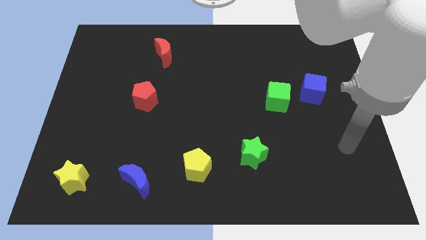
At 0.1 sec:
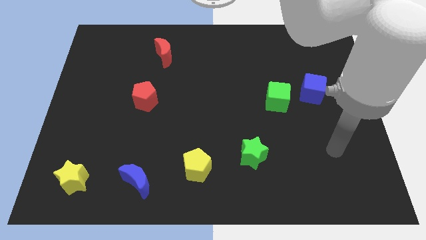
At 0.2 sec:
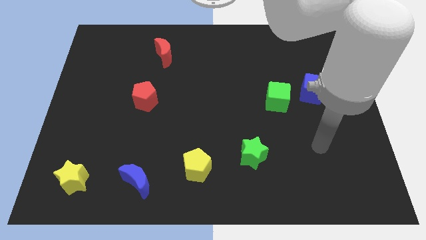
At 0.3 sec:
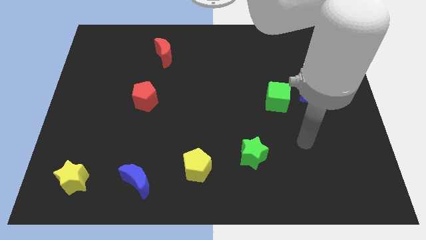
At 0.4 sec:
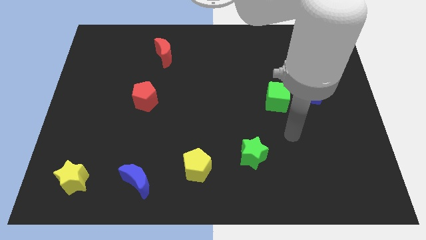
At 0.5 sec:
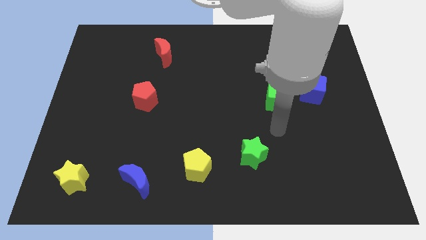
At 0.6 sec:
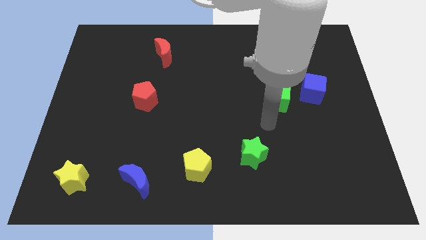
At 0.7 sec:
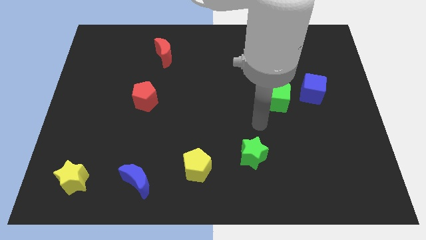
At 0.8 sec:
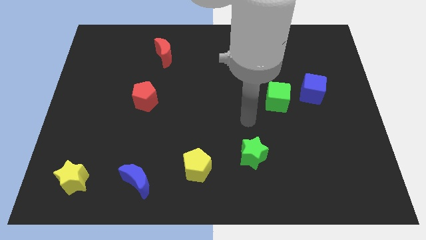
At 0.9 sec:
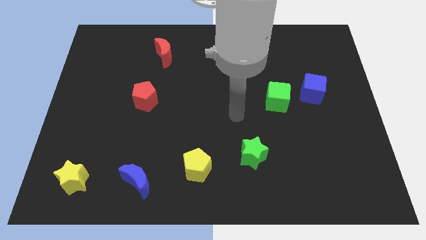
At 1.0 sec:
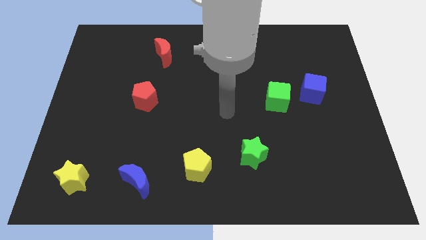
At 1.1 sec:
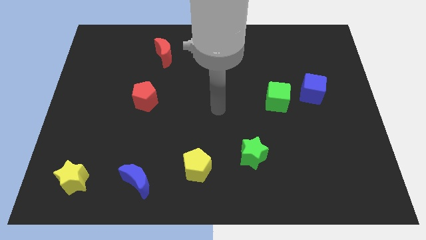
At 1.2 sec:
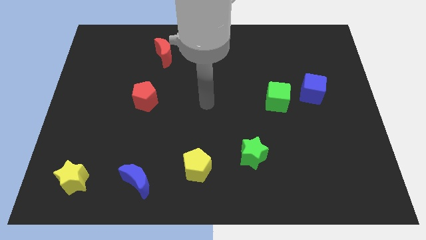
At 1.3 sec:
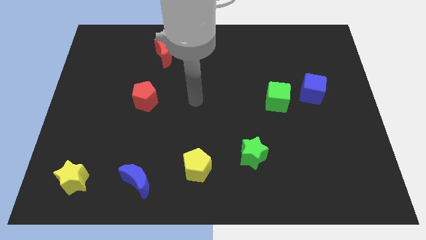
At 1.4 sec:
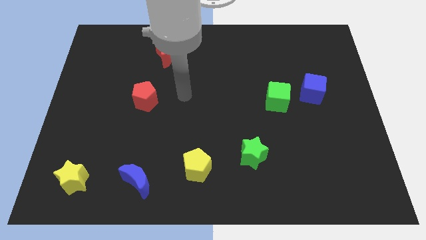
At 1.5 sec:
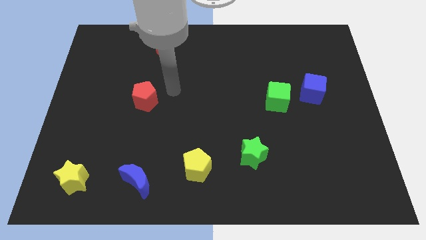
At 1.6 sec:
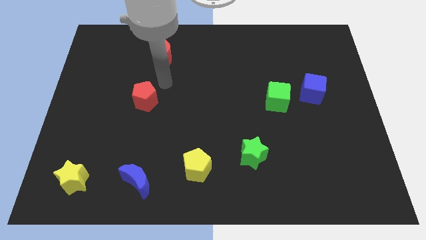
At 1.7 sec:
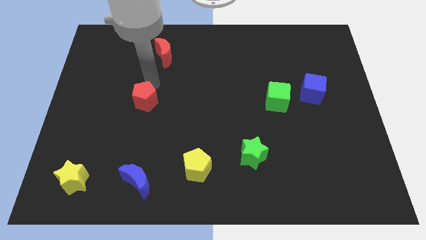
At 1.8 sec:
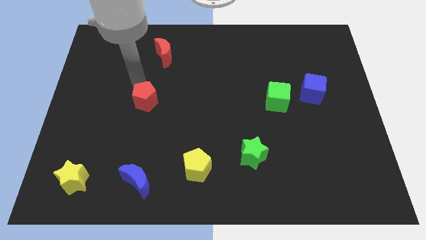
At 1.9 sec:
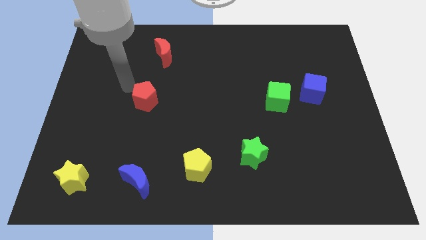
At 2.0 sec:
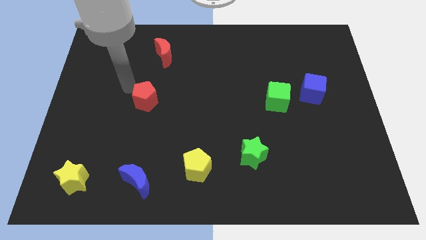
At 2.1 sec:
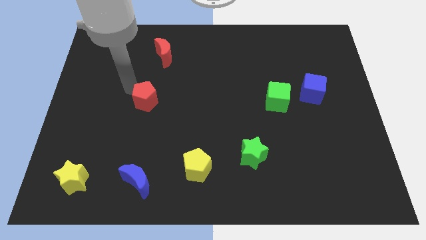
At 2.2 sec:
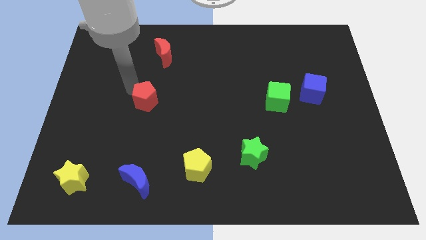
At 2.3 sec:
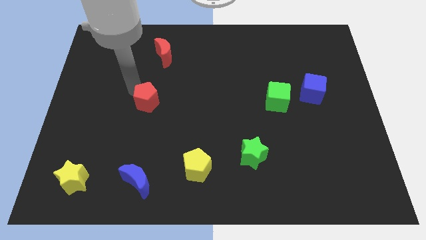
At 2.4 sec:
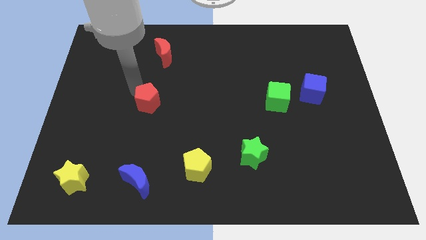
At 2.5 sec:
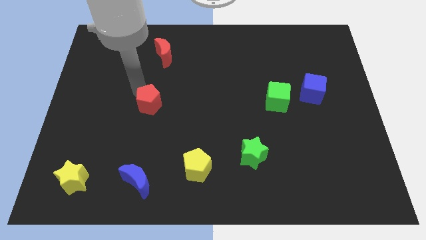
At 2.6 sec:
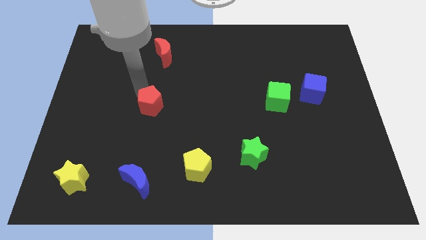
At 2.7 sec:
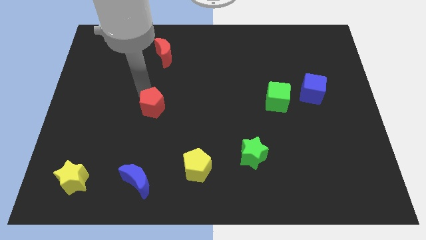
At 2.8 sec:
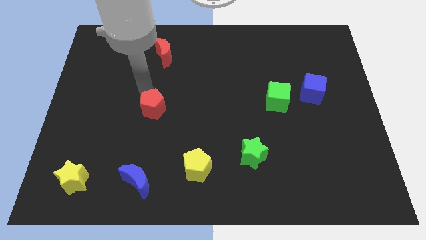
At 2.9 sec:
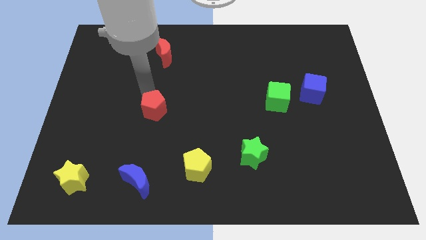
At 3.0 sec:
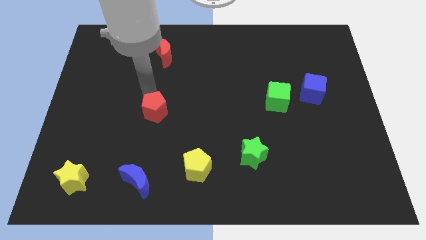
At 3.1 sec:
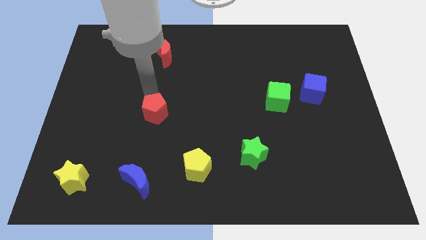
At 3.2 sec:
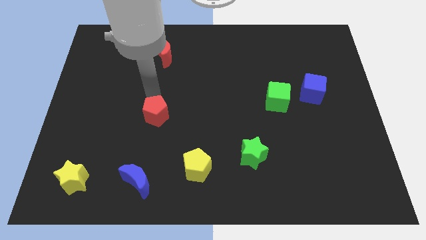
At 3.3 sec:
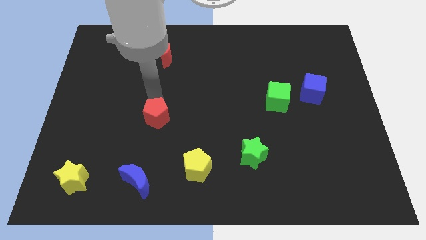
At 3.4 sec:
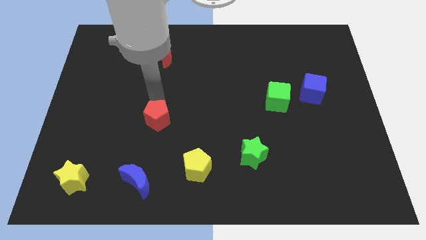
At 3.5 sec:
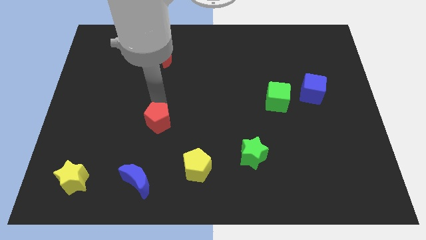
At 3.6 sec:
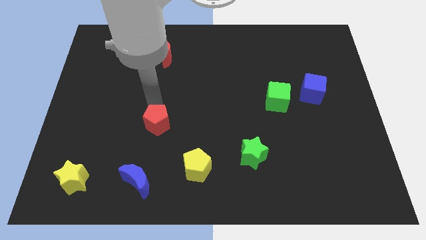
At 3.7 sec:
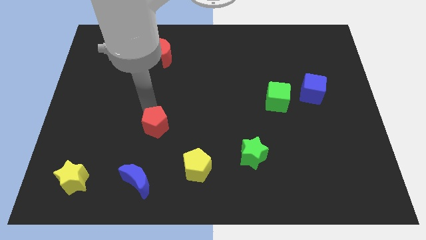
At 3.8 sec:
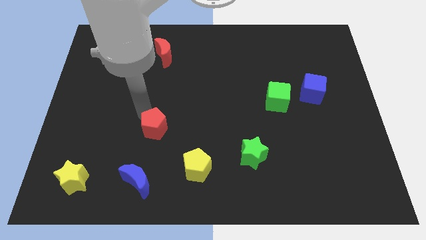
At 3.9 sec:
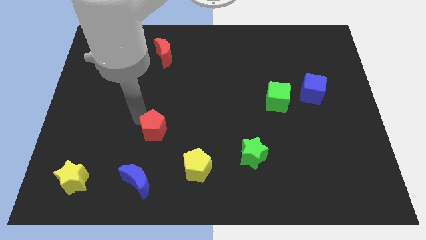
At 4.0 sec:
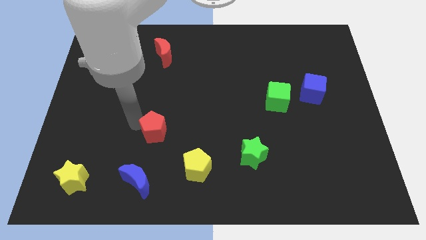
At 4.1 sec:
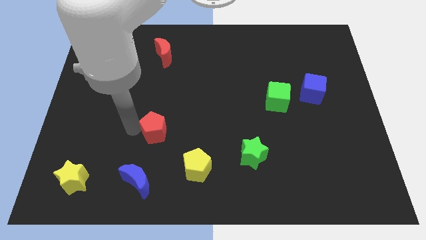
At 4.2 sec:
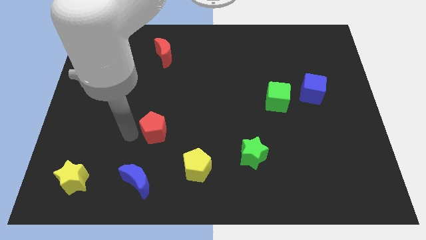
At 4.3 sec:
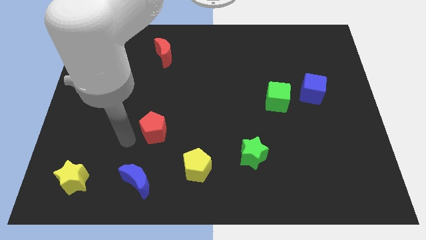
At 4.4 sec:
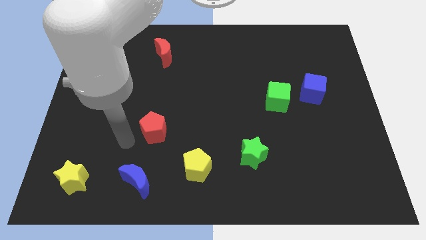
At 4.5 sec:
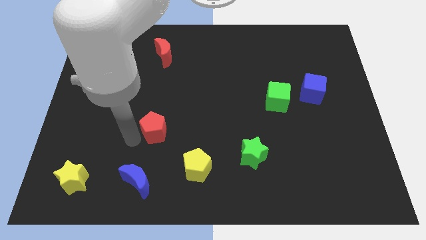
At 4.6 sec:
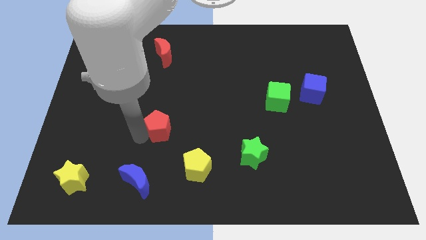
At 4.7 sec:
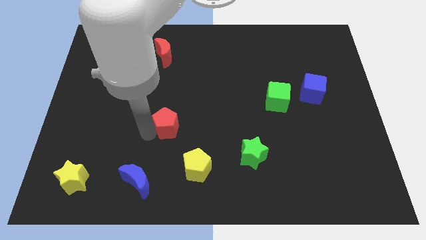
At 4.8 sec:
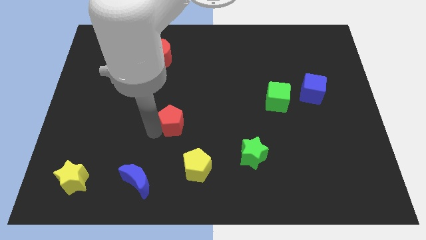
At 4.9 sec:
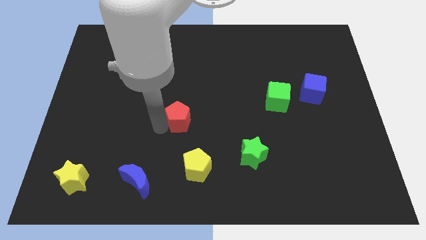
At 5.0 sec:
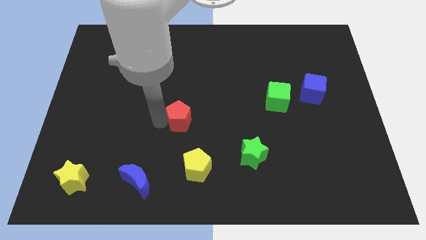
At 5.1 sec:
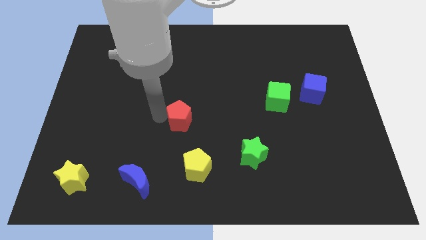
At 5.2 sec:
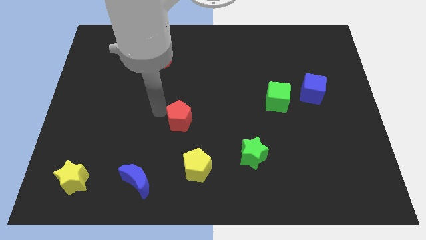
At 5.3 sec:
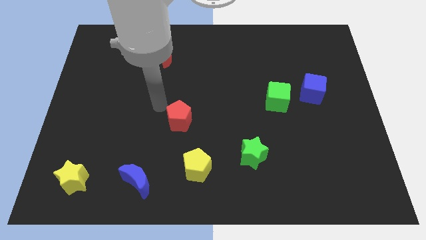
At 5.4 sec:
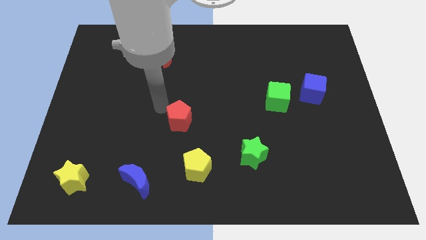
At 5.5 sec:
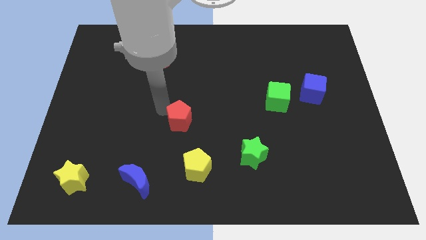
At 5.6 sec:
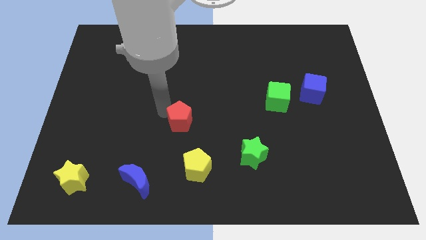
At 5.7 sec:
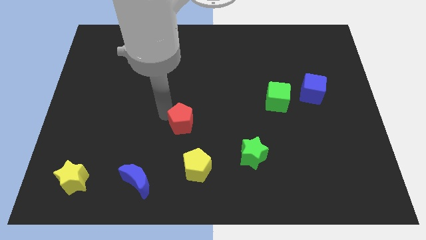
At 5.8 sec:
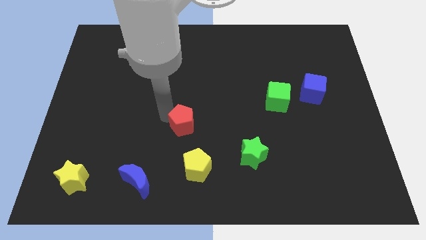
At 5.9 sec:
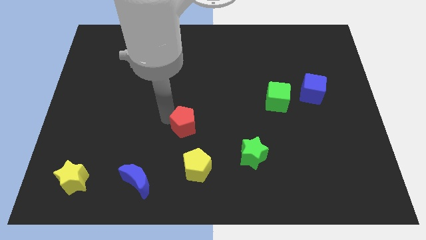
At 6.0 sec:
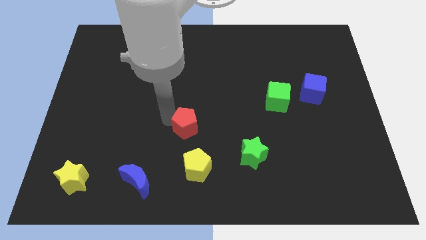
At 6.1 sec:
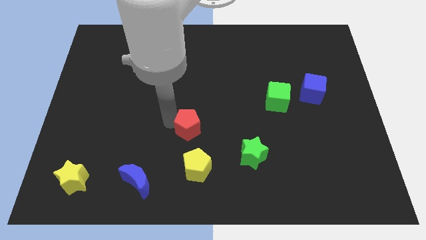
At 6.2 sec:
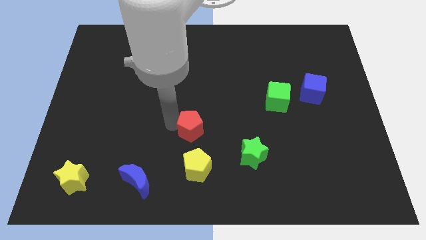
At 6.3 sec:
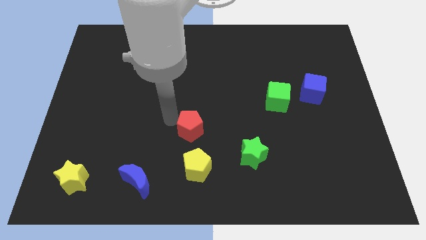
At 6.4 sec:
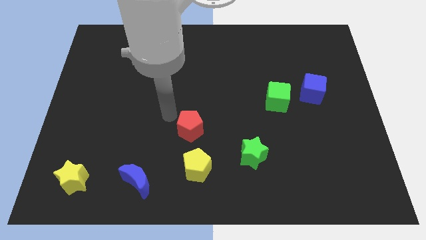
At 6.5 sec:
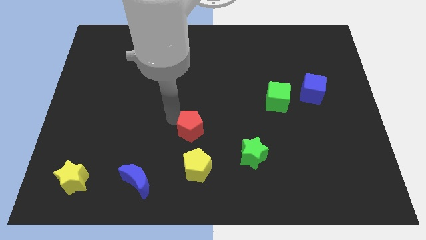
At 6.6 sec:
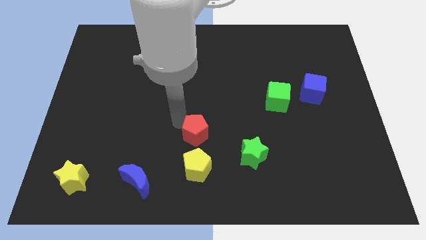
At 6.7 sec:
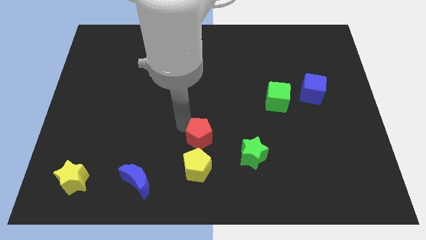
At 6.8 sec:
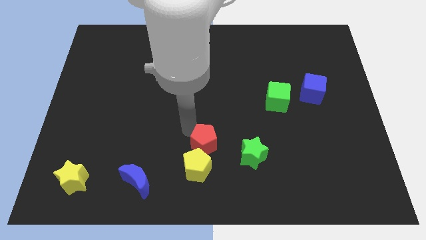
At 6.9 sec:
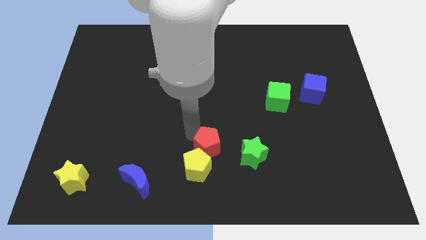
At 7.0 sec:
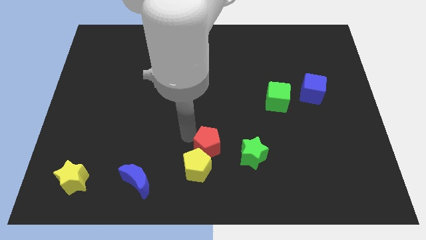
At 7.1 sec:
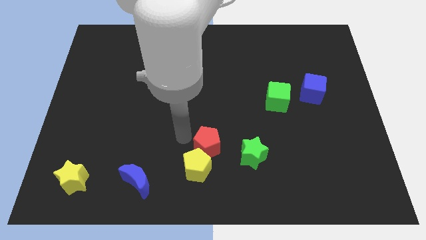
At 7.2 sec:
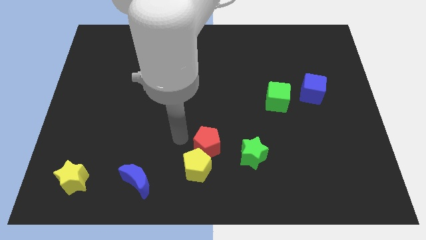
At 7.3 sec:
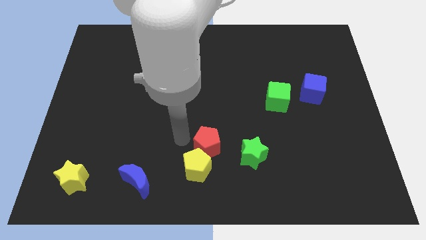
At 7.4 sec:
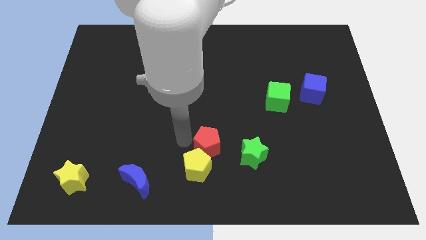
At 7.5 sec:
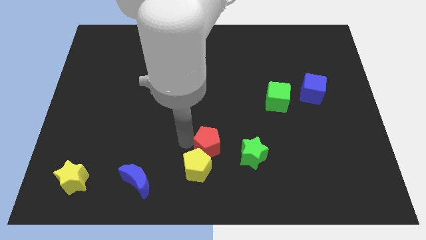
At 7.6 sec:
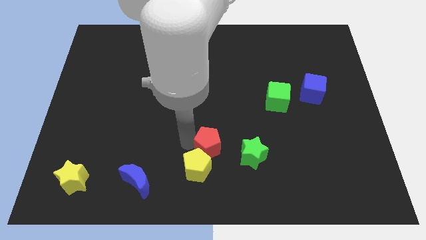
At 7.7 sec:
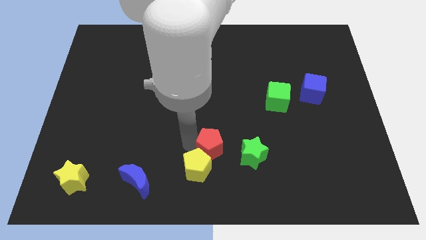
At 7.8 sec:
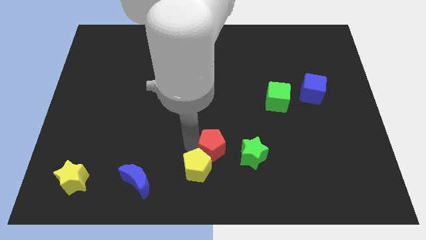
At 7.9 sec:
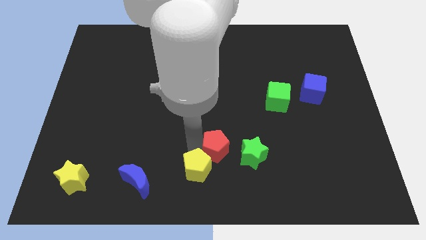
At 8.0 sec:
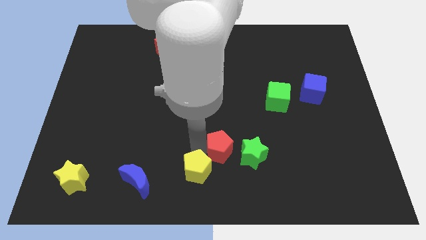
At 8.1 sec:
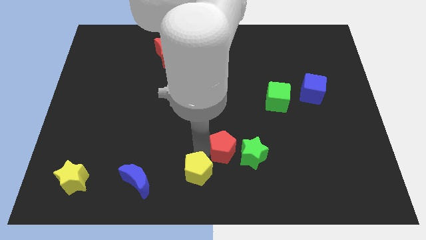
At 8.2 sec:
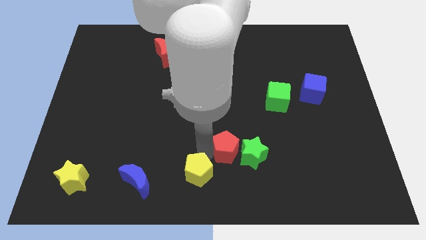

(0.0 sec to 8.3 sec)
put the red pentagon next to the green star
